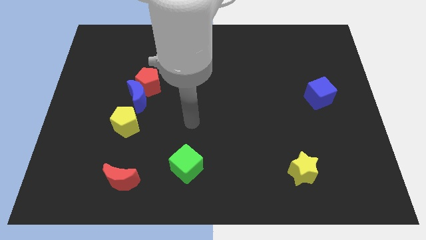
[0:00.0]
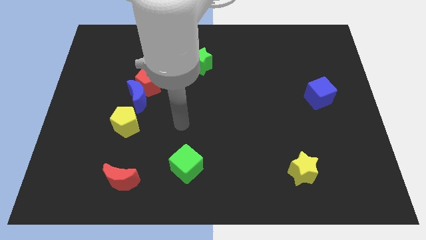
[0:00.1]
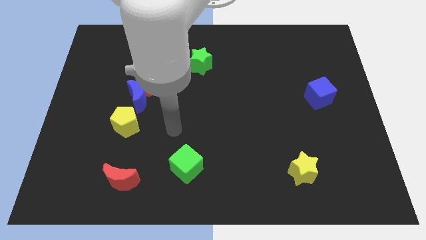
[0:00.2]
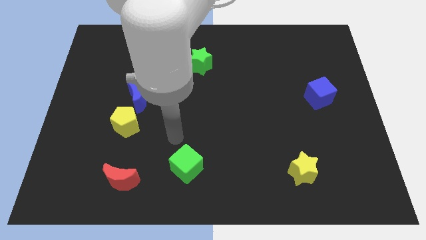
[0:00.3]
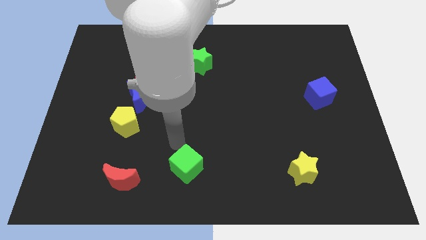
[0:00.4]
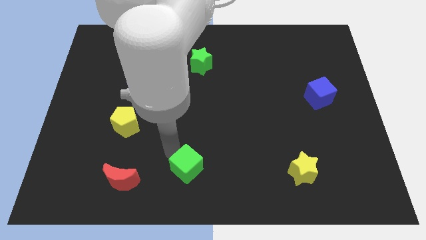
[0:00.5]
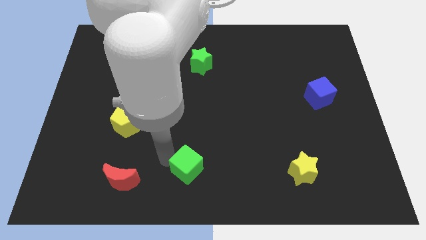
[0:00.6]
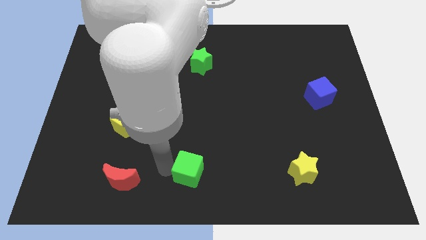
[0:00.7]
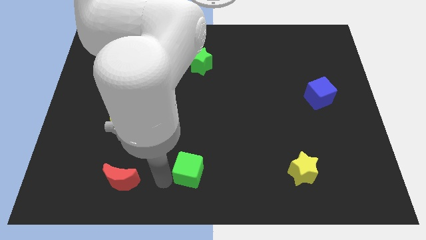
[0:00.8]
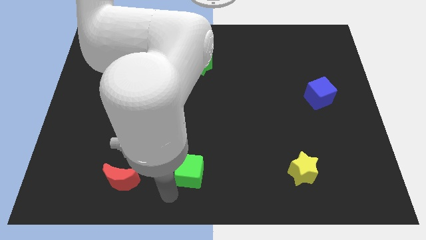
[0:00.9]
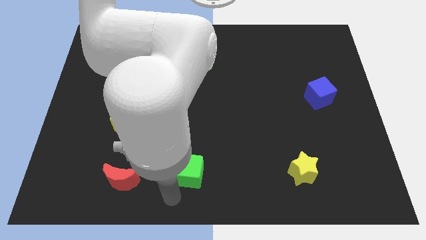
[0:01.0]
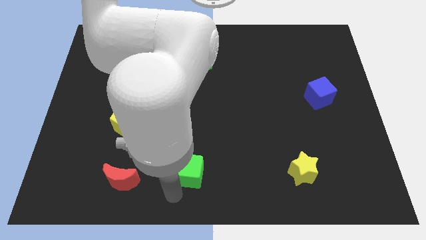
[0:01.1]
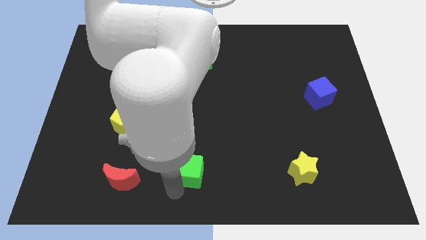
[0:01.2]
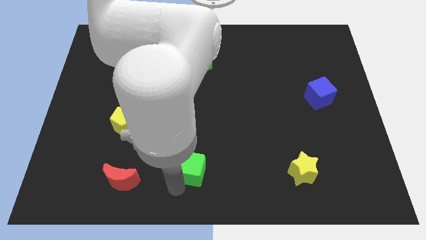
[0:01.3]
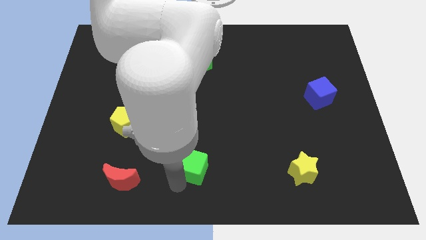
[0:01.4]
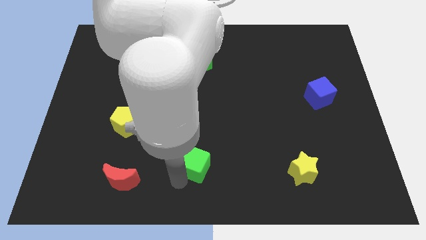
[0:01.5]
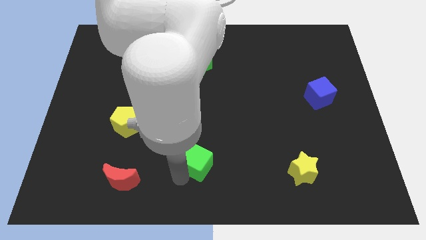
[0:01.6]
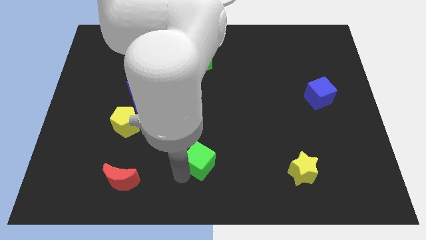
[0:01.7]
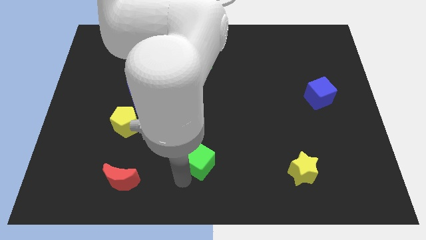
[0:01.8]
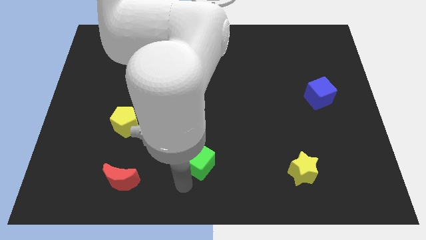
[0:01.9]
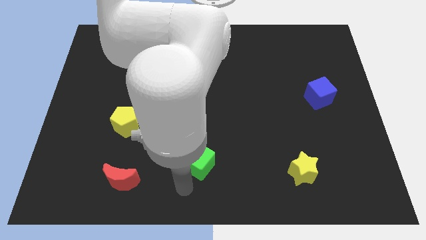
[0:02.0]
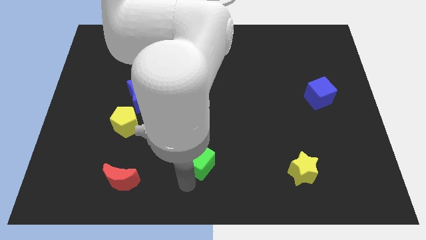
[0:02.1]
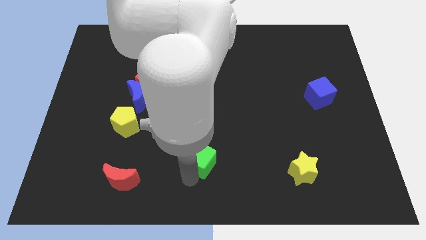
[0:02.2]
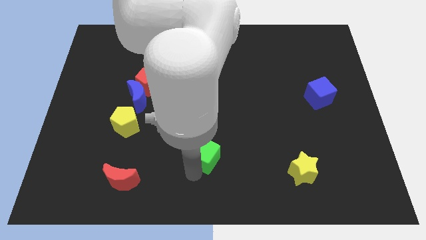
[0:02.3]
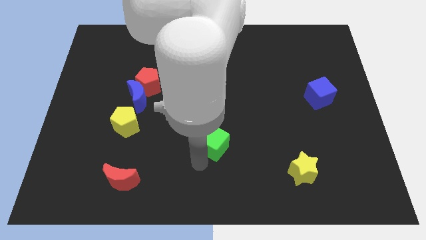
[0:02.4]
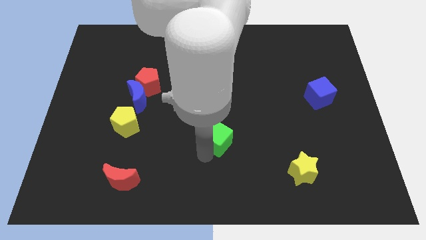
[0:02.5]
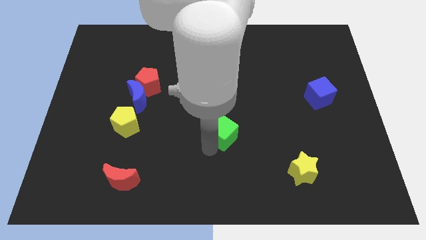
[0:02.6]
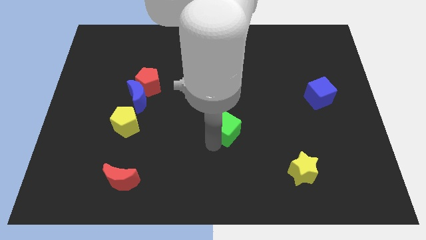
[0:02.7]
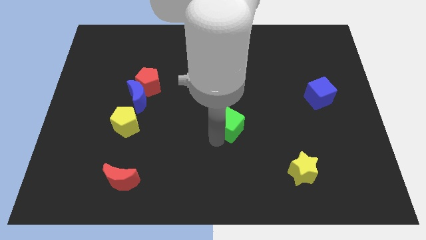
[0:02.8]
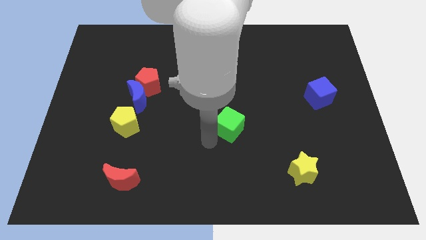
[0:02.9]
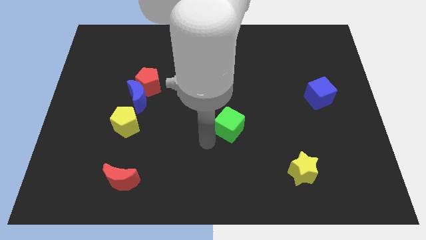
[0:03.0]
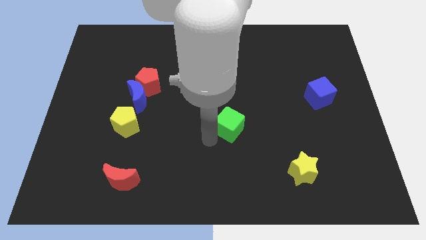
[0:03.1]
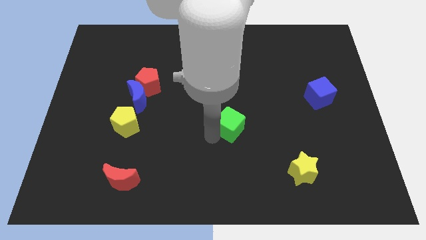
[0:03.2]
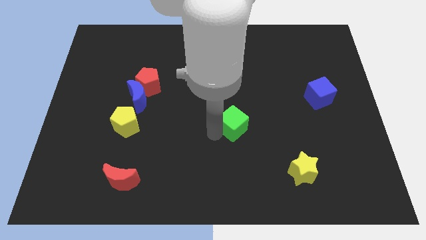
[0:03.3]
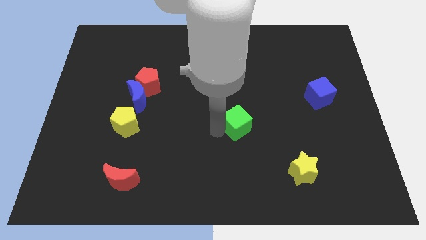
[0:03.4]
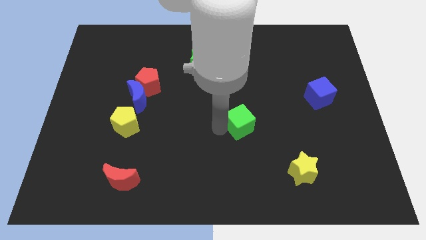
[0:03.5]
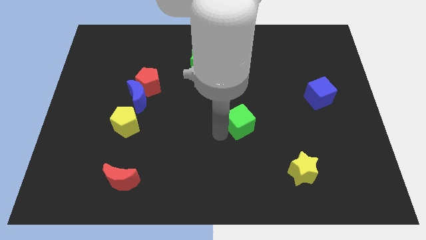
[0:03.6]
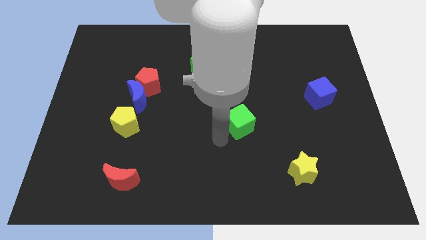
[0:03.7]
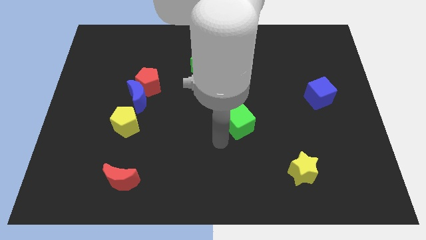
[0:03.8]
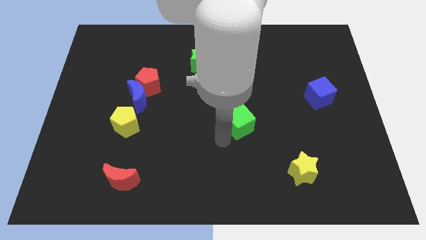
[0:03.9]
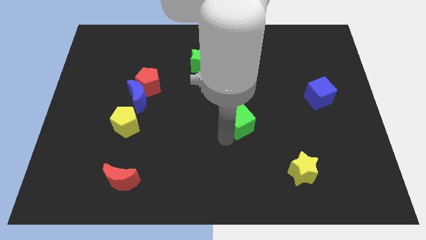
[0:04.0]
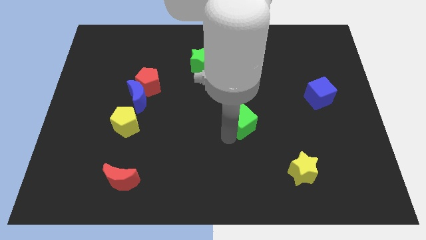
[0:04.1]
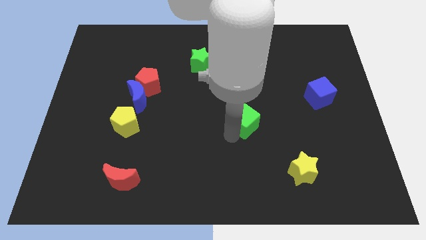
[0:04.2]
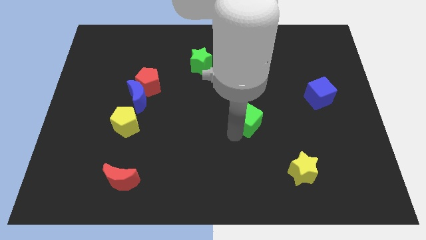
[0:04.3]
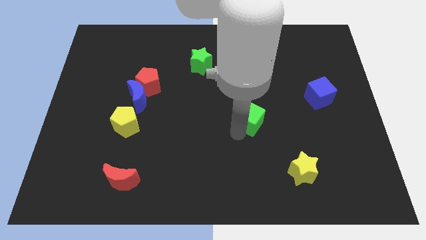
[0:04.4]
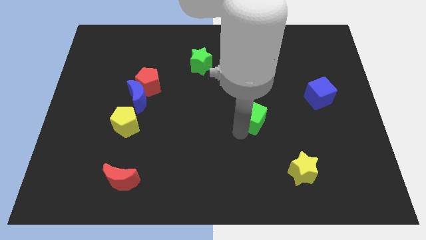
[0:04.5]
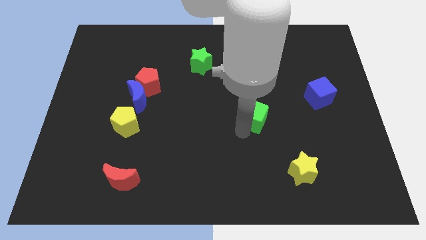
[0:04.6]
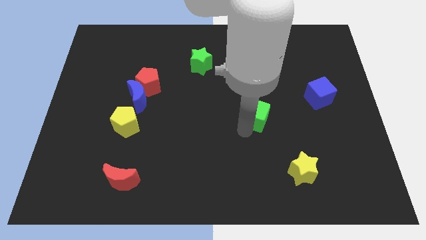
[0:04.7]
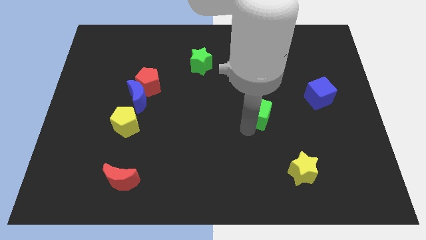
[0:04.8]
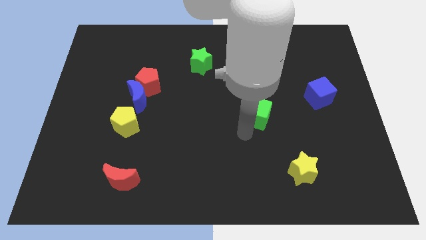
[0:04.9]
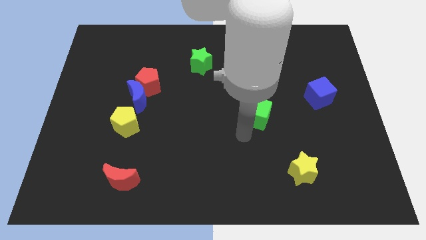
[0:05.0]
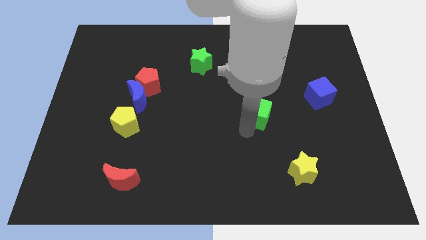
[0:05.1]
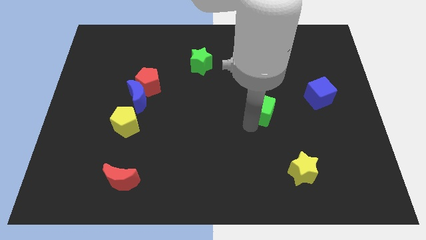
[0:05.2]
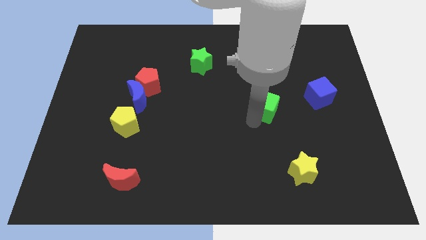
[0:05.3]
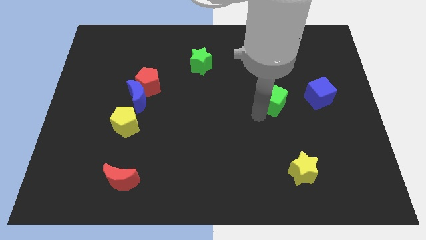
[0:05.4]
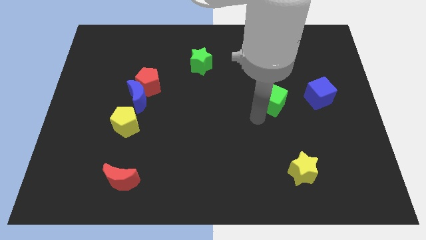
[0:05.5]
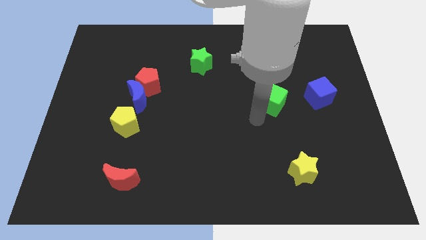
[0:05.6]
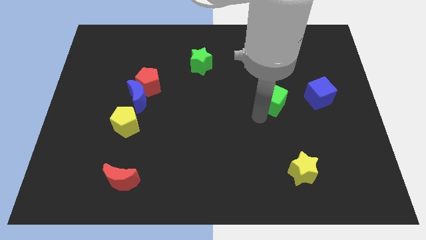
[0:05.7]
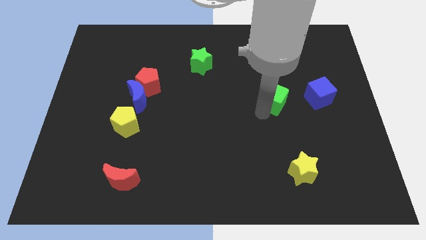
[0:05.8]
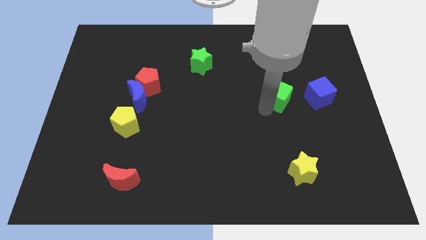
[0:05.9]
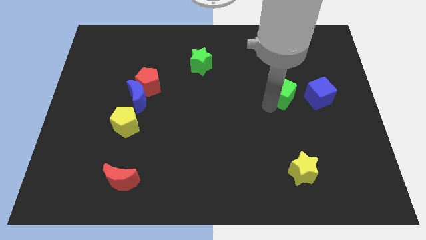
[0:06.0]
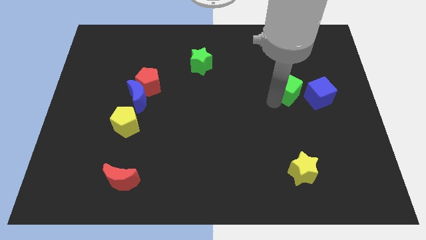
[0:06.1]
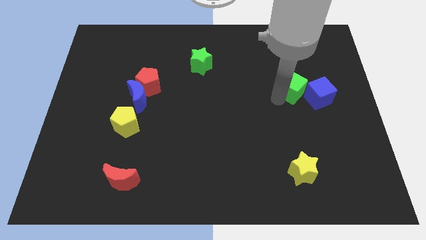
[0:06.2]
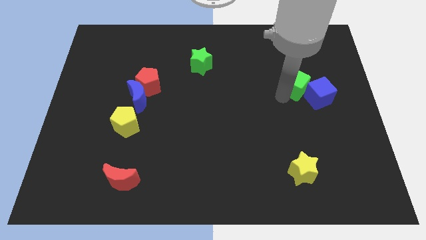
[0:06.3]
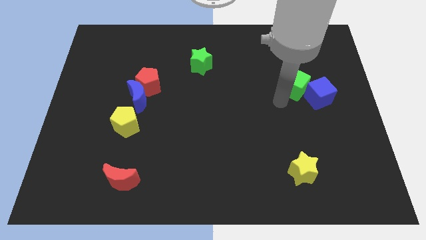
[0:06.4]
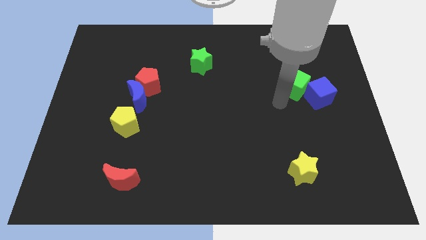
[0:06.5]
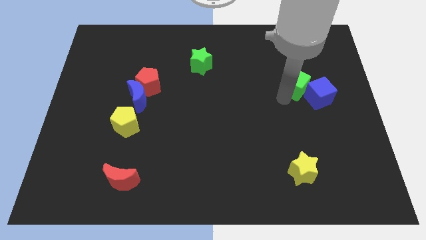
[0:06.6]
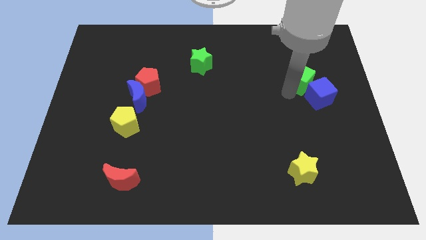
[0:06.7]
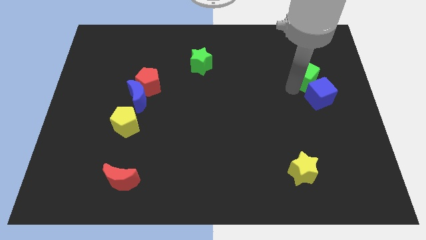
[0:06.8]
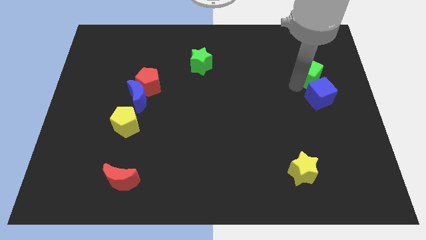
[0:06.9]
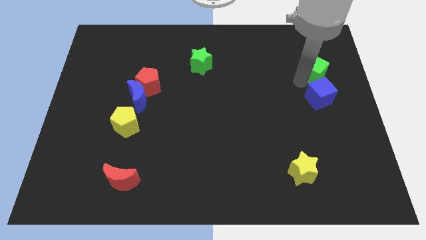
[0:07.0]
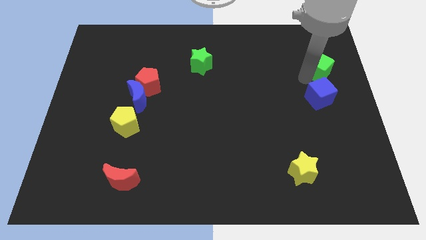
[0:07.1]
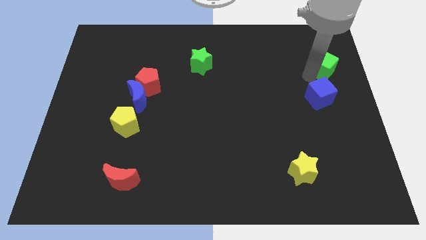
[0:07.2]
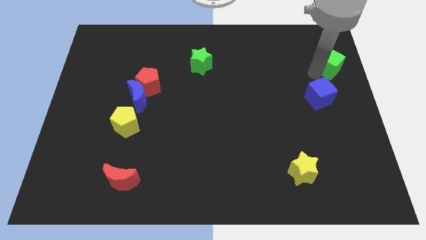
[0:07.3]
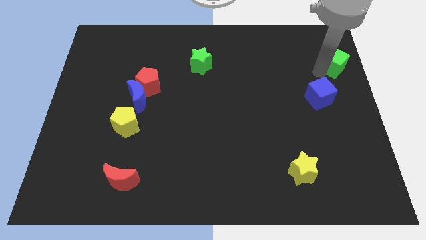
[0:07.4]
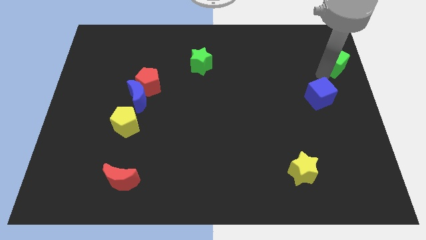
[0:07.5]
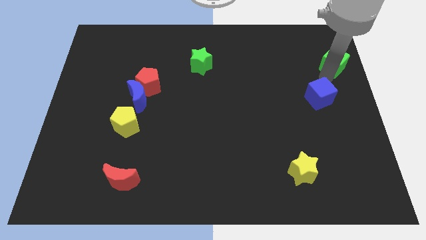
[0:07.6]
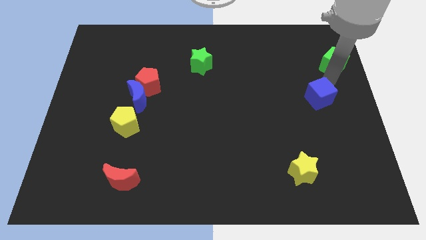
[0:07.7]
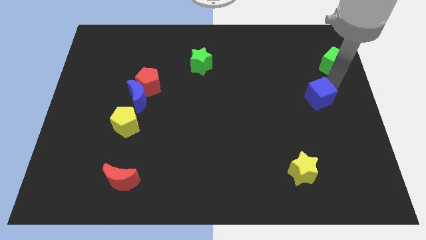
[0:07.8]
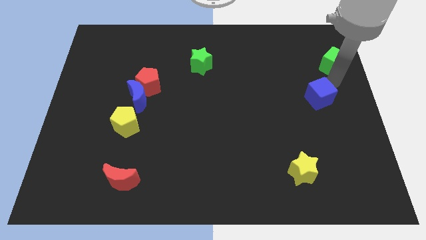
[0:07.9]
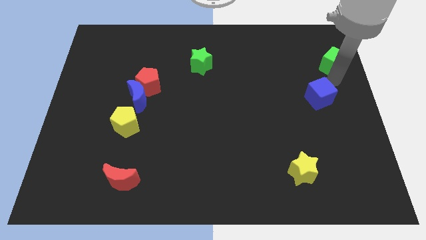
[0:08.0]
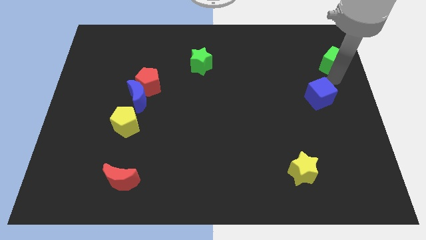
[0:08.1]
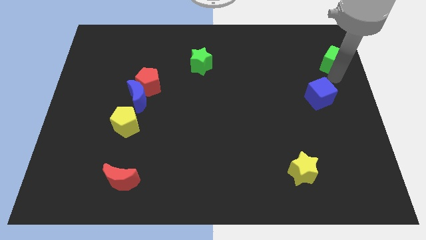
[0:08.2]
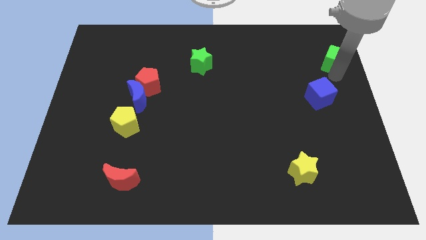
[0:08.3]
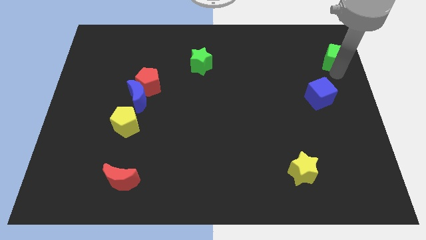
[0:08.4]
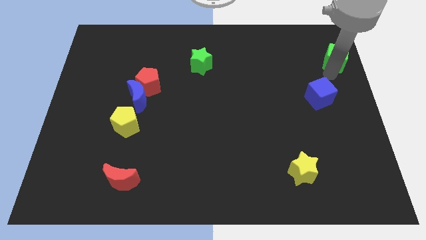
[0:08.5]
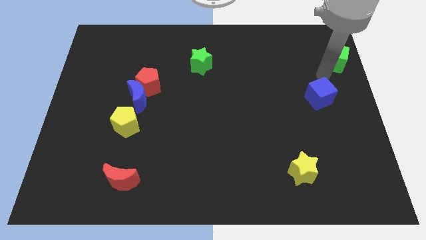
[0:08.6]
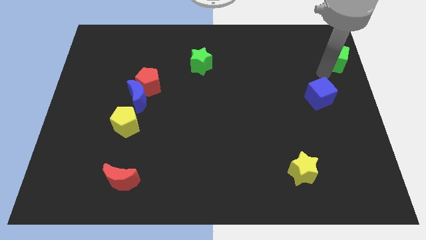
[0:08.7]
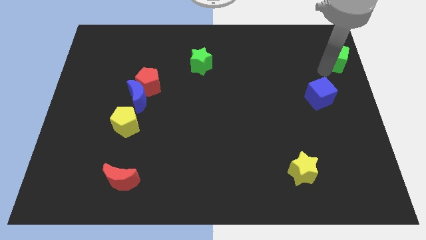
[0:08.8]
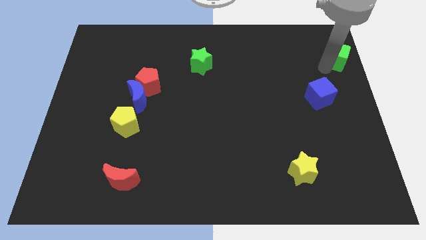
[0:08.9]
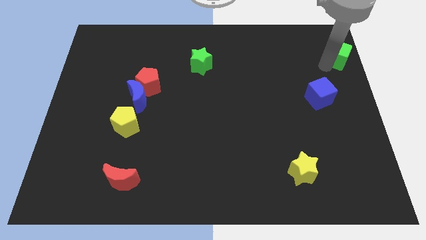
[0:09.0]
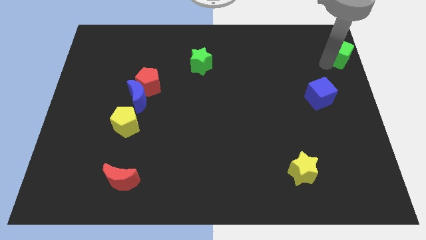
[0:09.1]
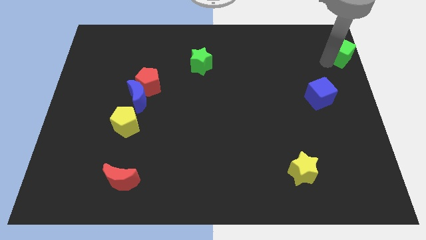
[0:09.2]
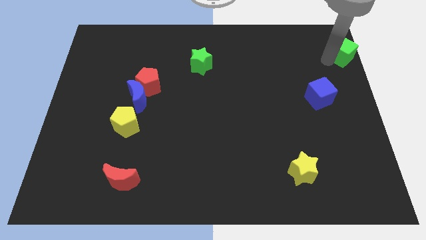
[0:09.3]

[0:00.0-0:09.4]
push the green cube to the upper right corner
